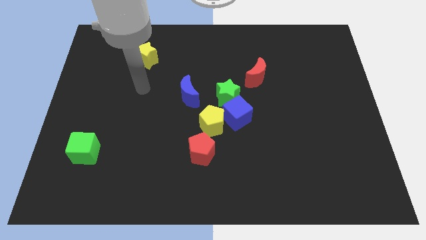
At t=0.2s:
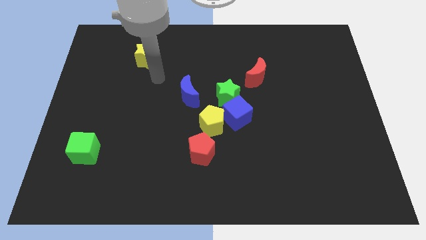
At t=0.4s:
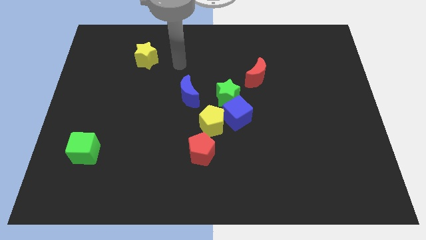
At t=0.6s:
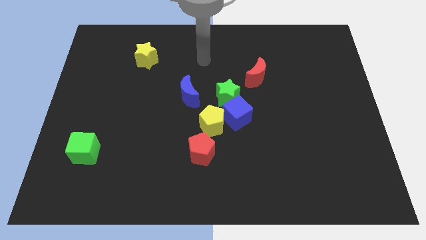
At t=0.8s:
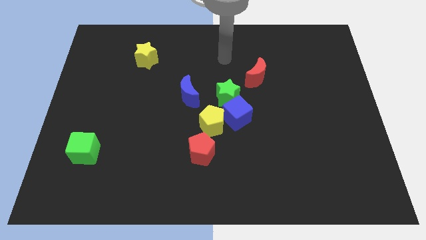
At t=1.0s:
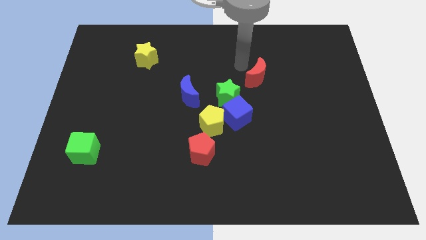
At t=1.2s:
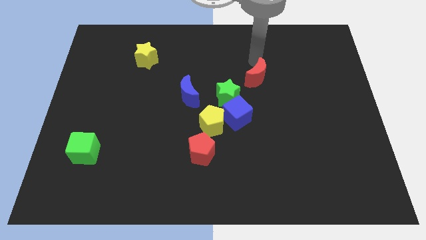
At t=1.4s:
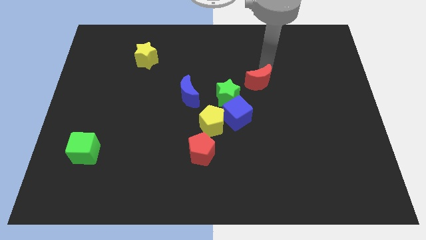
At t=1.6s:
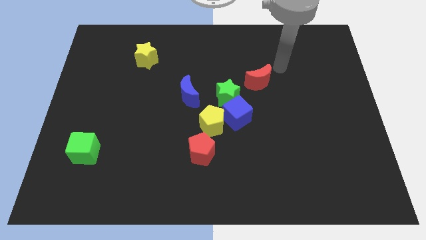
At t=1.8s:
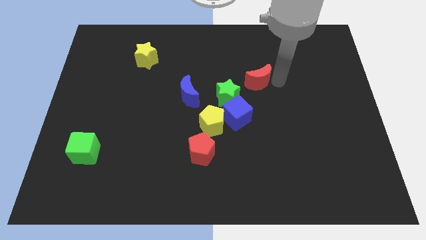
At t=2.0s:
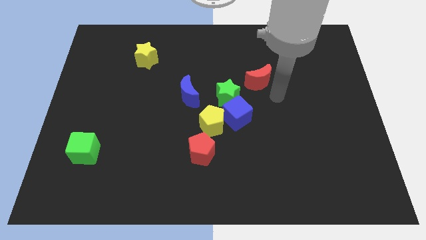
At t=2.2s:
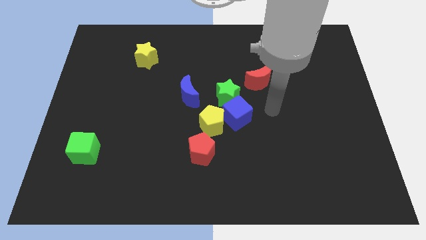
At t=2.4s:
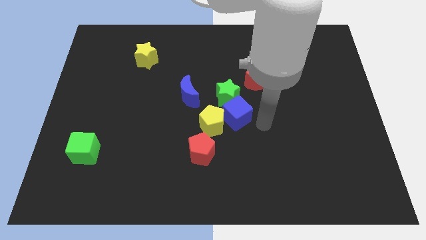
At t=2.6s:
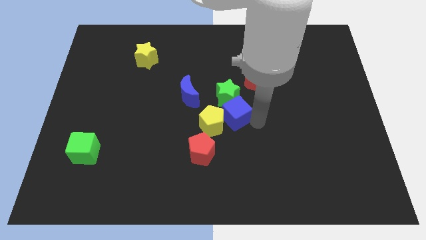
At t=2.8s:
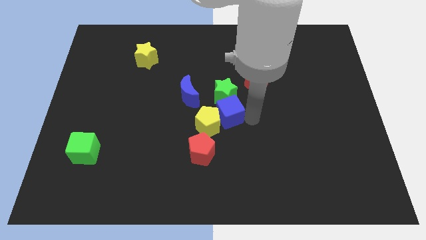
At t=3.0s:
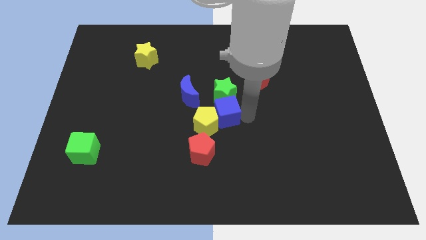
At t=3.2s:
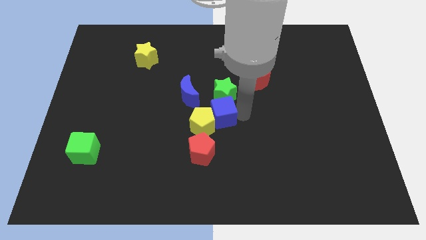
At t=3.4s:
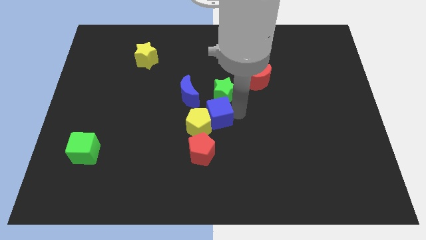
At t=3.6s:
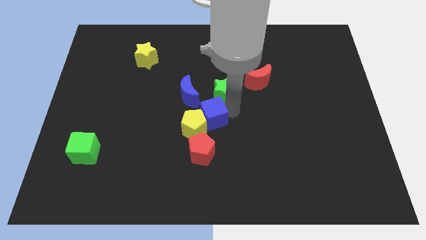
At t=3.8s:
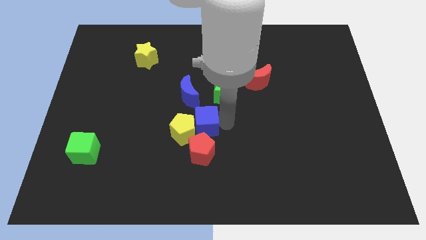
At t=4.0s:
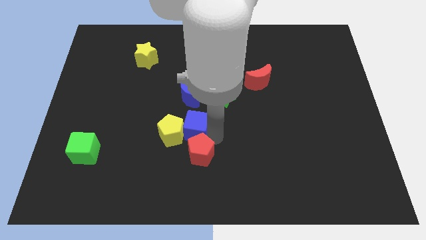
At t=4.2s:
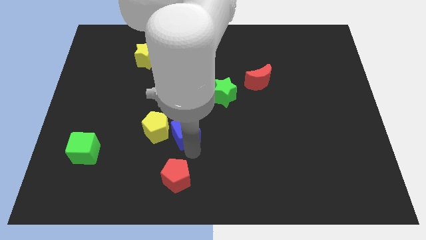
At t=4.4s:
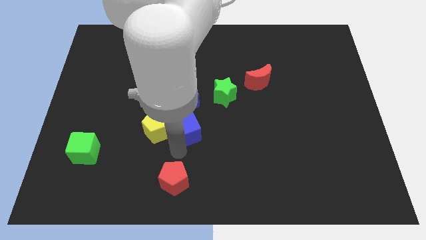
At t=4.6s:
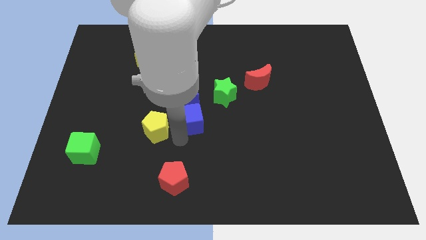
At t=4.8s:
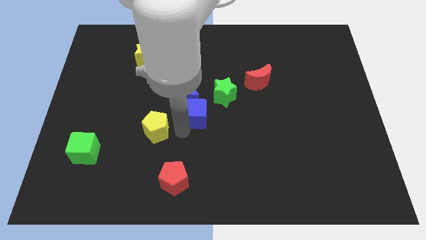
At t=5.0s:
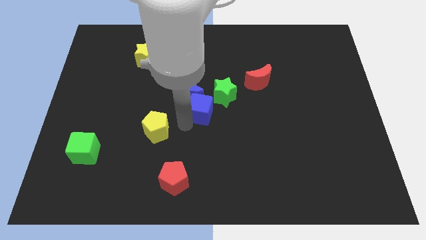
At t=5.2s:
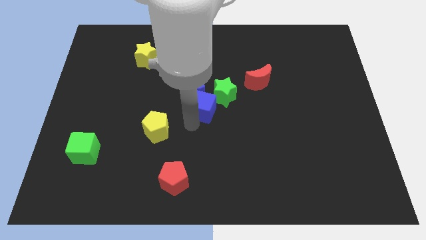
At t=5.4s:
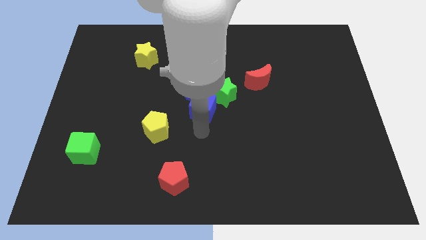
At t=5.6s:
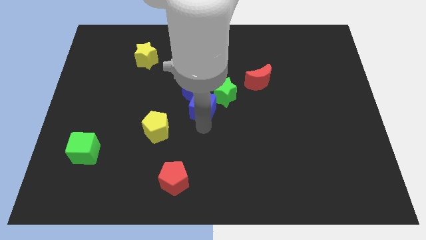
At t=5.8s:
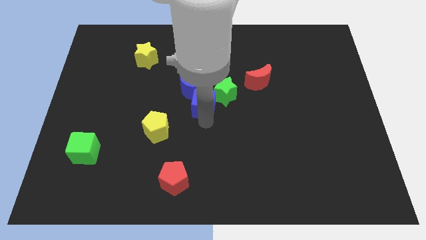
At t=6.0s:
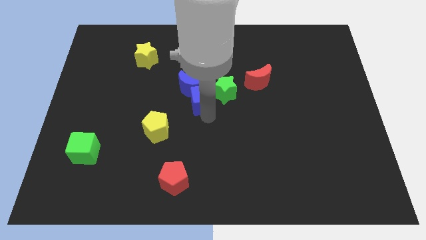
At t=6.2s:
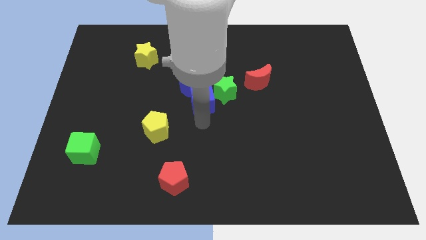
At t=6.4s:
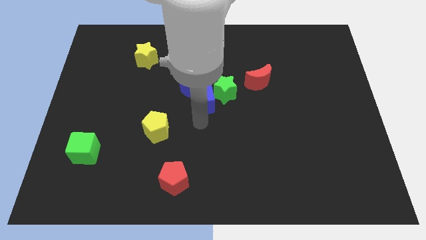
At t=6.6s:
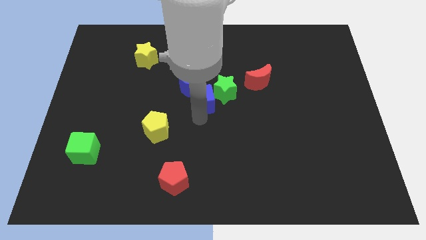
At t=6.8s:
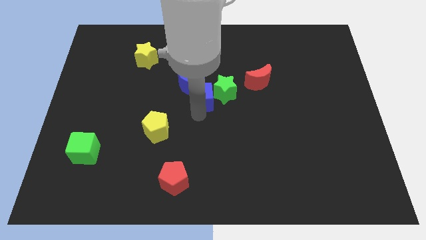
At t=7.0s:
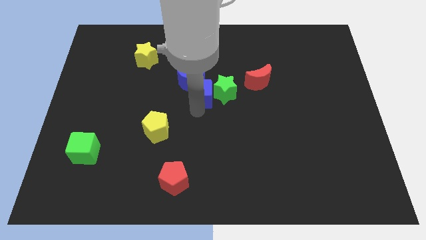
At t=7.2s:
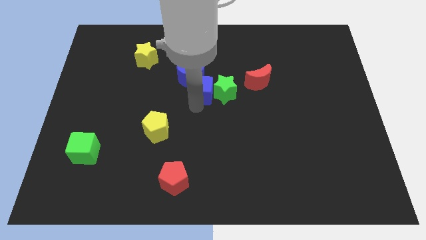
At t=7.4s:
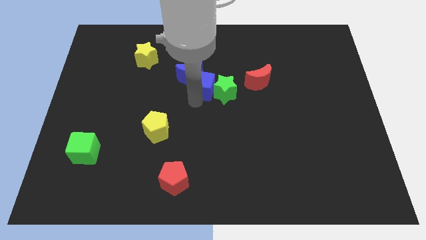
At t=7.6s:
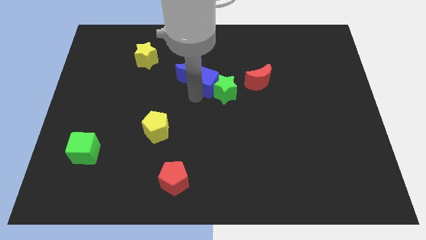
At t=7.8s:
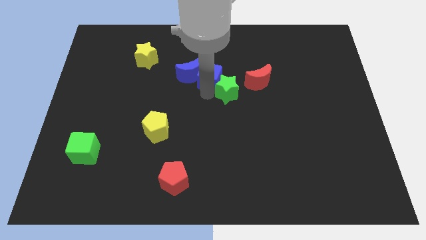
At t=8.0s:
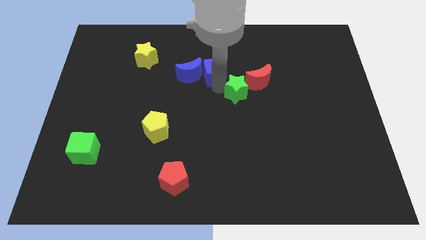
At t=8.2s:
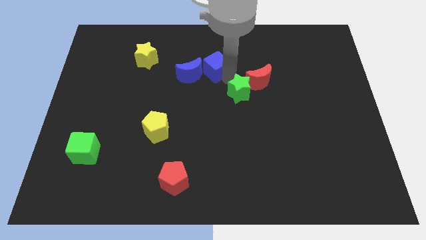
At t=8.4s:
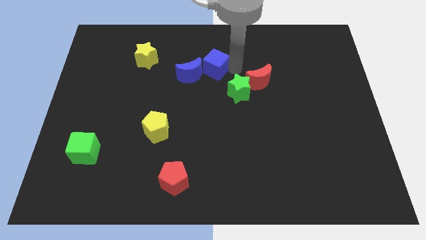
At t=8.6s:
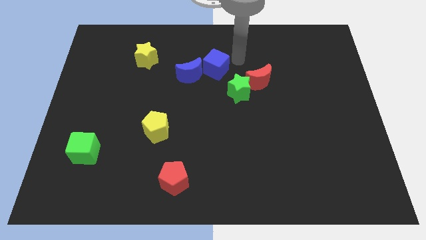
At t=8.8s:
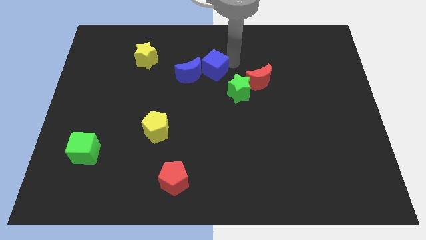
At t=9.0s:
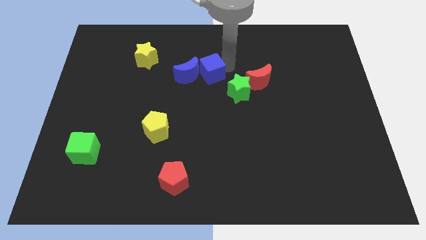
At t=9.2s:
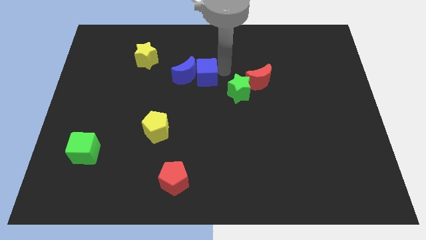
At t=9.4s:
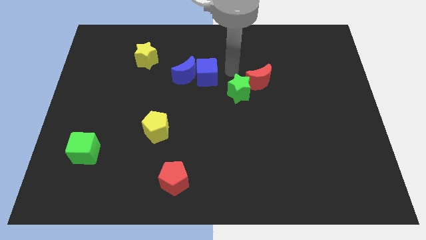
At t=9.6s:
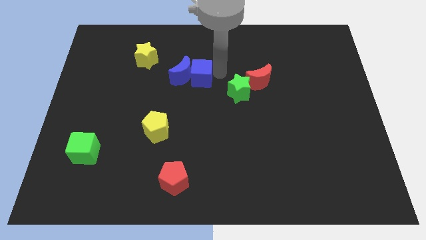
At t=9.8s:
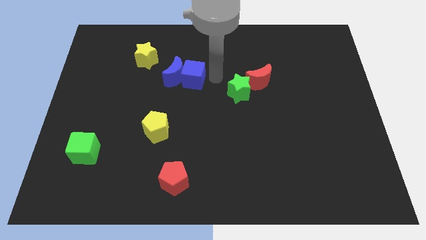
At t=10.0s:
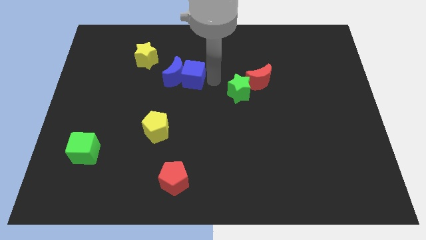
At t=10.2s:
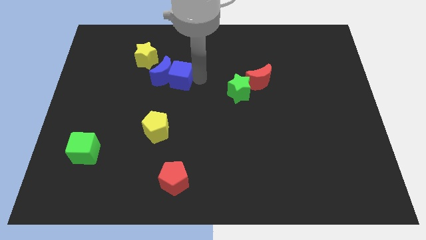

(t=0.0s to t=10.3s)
slide the blue cube diagonally down and to the right of the yellow star

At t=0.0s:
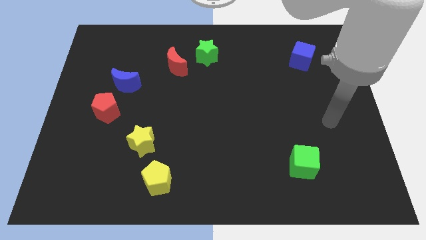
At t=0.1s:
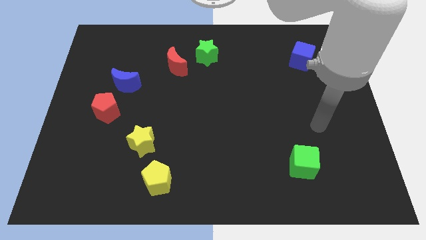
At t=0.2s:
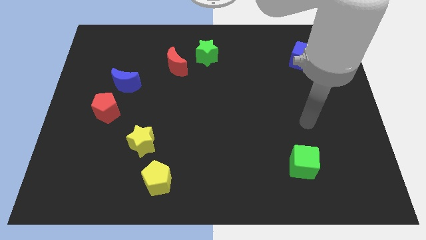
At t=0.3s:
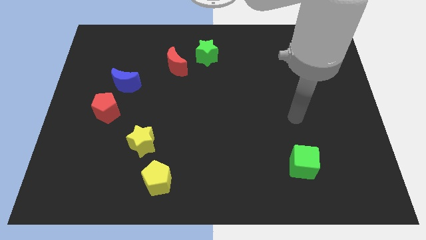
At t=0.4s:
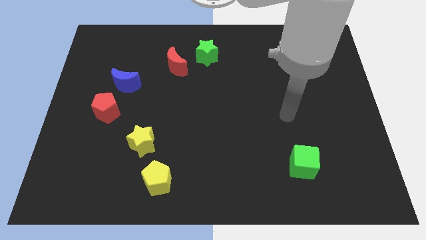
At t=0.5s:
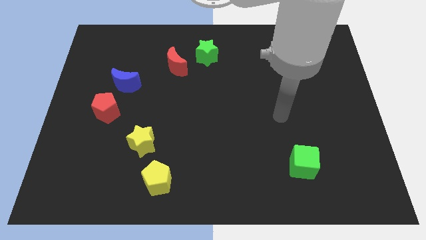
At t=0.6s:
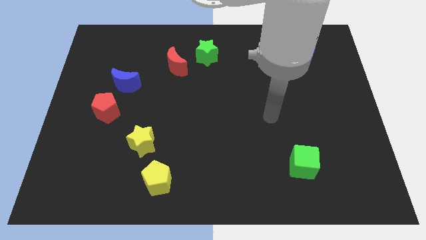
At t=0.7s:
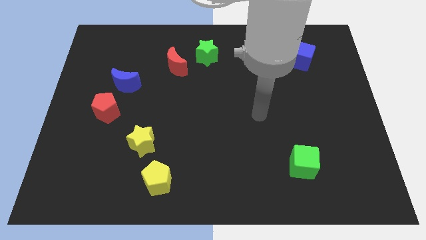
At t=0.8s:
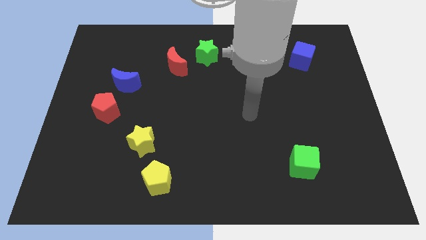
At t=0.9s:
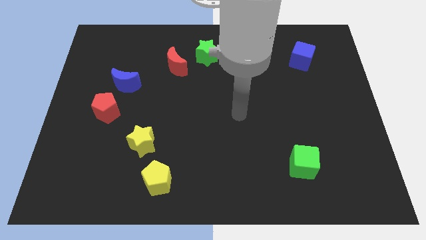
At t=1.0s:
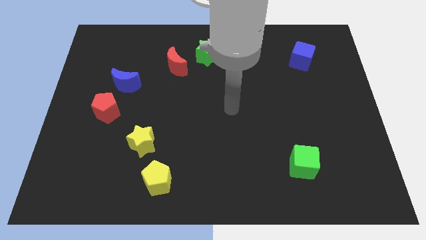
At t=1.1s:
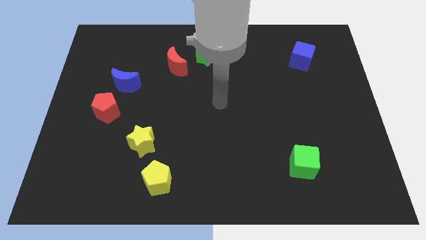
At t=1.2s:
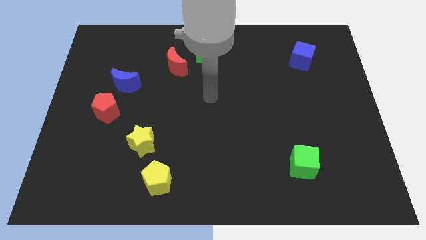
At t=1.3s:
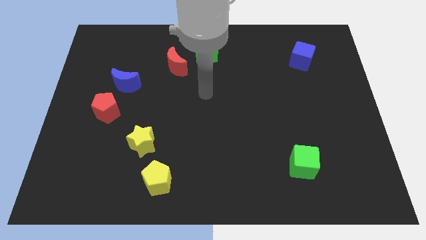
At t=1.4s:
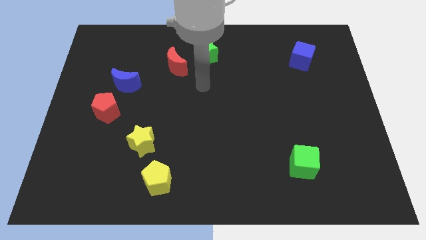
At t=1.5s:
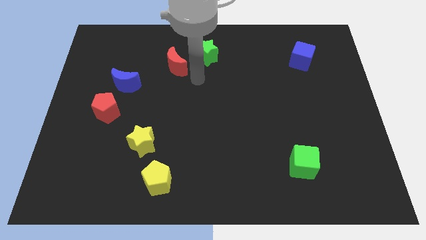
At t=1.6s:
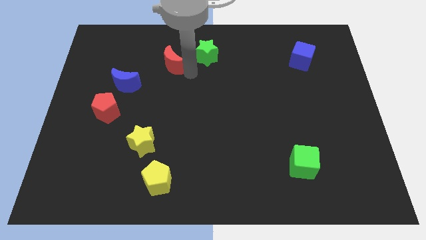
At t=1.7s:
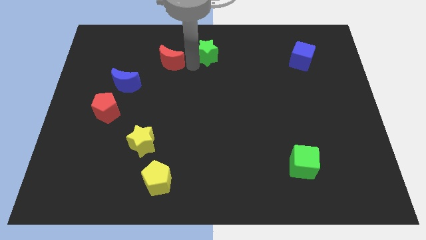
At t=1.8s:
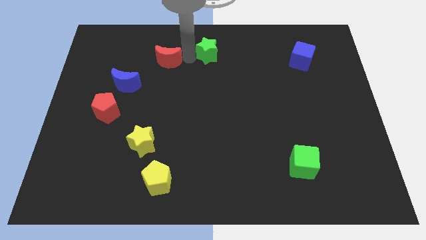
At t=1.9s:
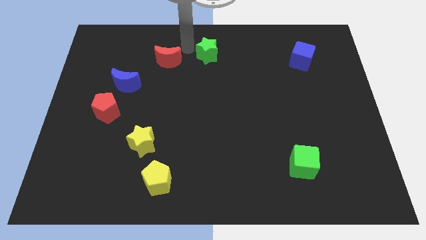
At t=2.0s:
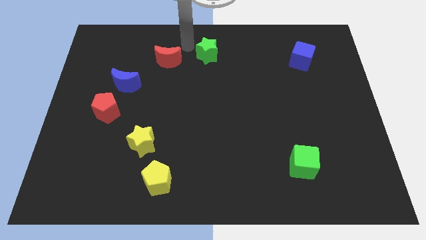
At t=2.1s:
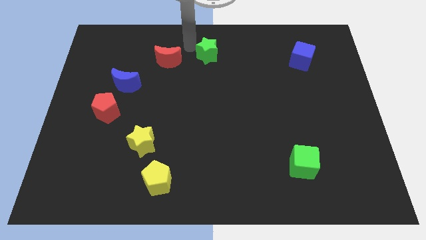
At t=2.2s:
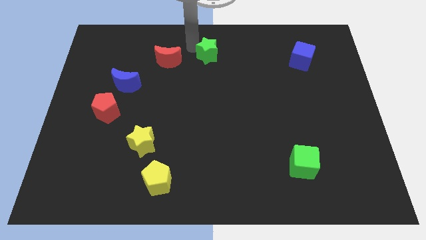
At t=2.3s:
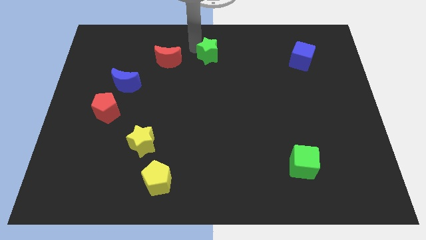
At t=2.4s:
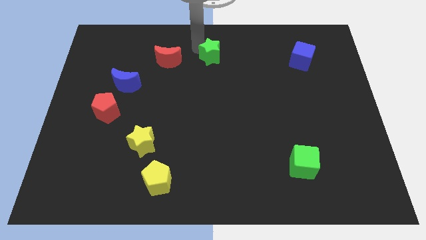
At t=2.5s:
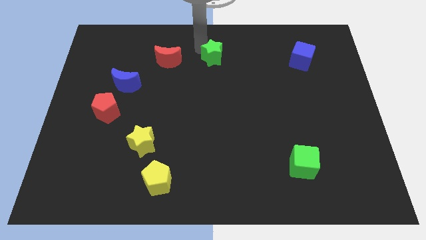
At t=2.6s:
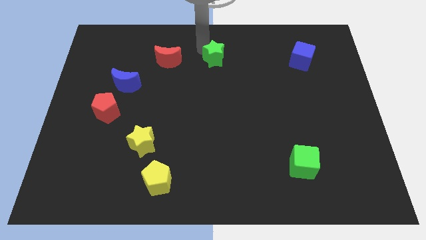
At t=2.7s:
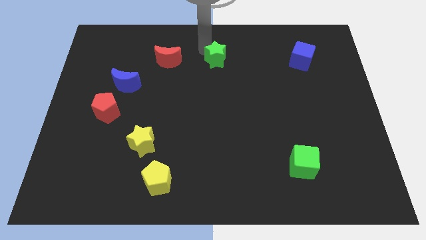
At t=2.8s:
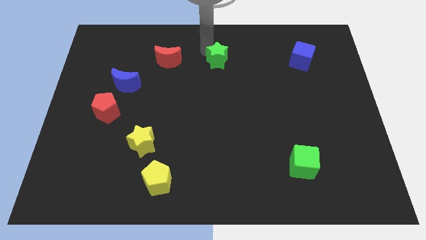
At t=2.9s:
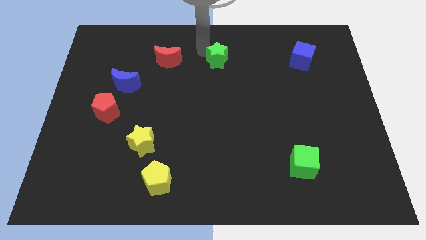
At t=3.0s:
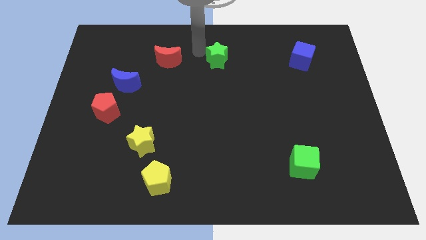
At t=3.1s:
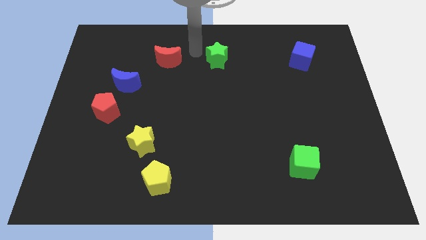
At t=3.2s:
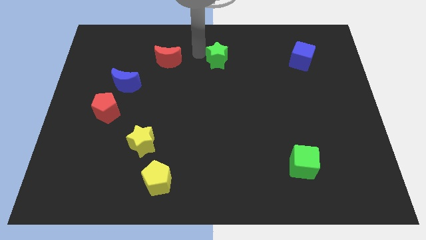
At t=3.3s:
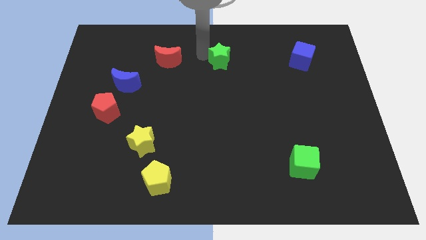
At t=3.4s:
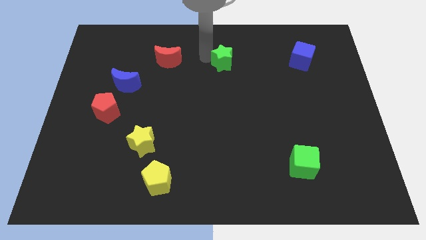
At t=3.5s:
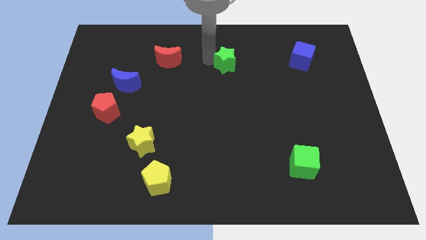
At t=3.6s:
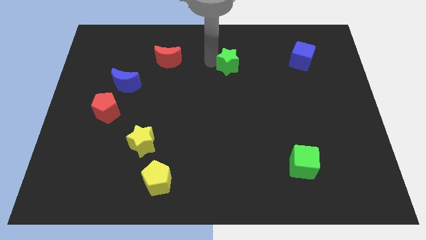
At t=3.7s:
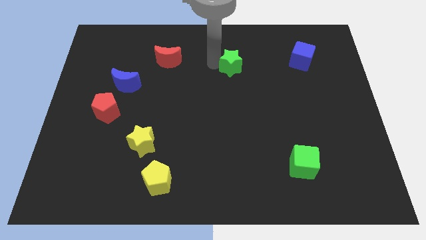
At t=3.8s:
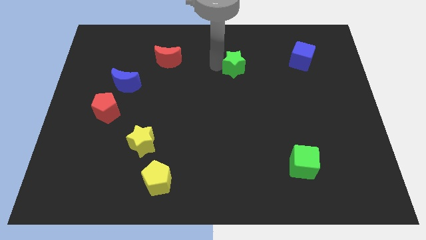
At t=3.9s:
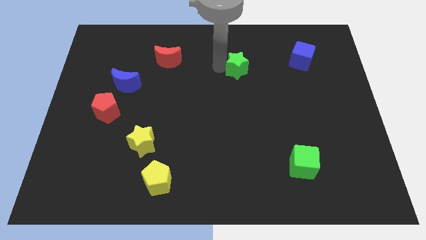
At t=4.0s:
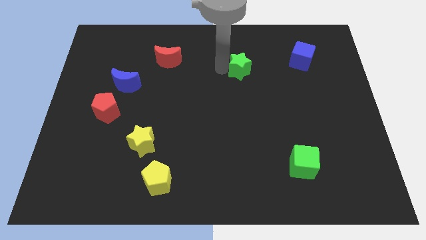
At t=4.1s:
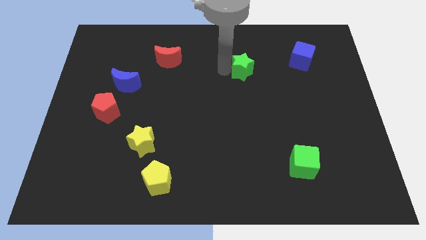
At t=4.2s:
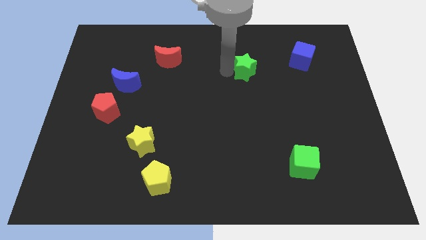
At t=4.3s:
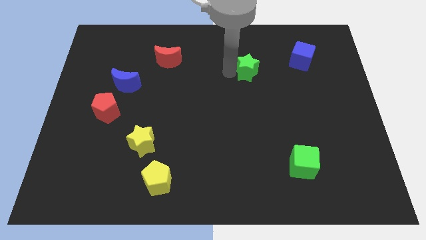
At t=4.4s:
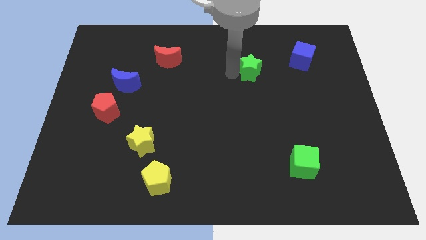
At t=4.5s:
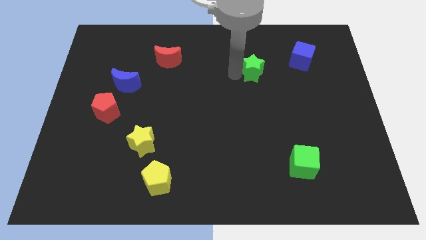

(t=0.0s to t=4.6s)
push the green star to the left side of the blue cube
